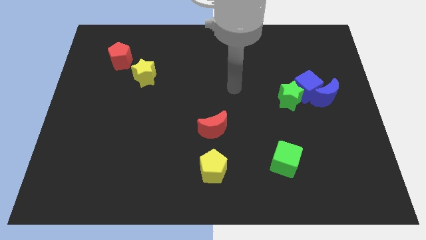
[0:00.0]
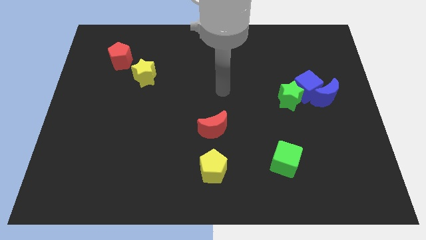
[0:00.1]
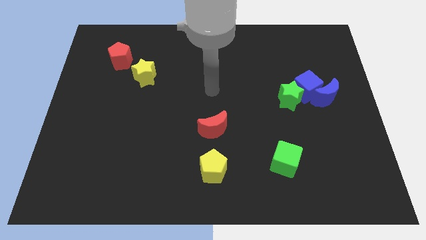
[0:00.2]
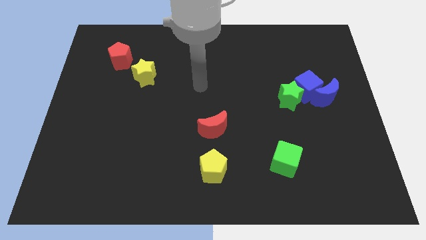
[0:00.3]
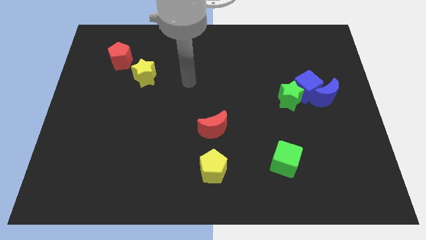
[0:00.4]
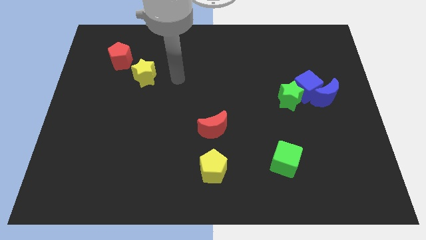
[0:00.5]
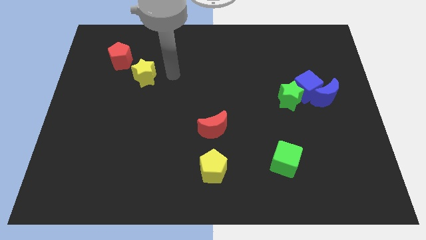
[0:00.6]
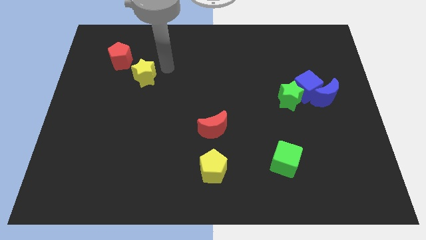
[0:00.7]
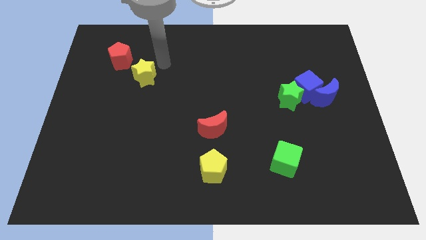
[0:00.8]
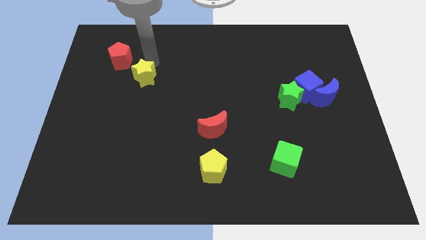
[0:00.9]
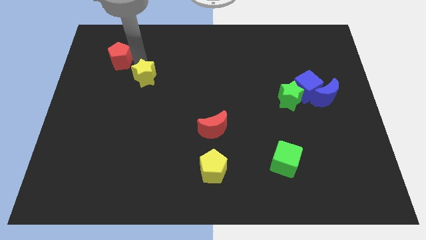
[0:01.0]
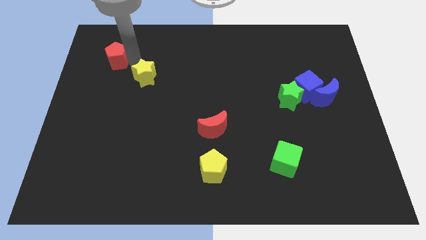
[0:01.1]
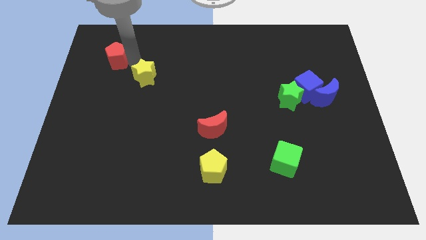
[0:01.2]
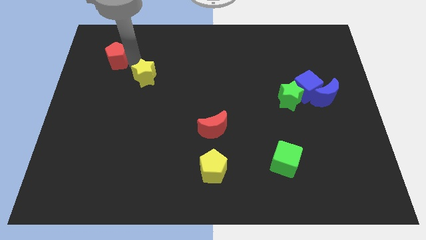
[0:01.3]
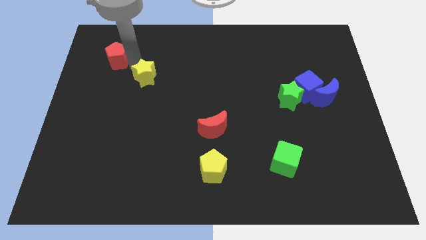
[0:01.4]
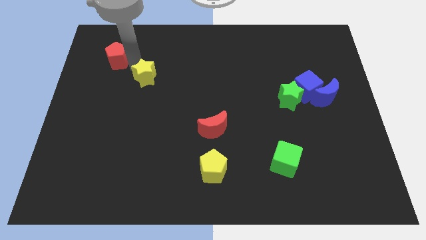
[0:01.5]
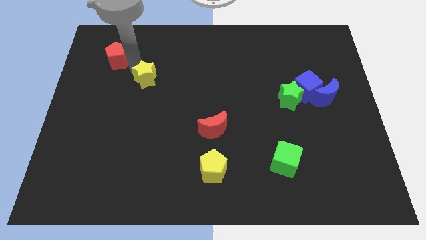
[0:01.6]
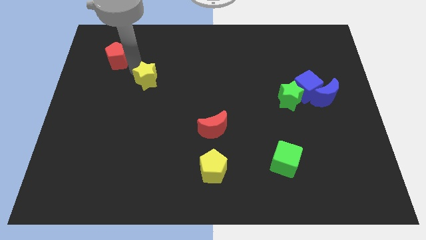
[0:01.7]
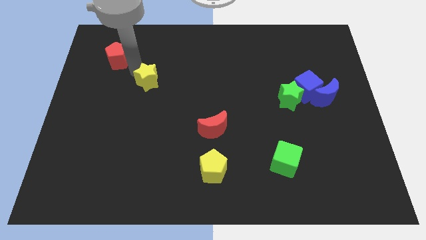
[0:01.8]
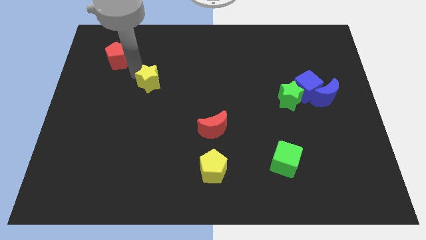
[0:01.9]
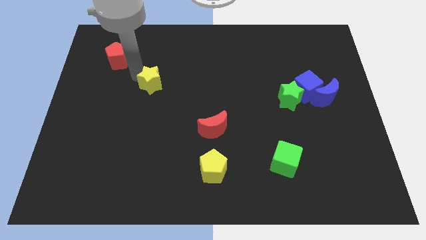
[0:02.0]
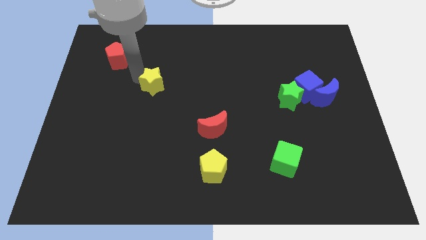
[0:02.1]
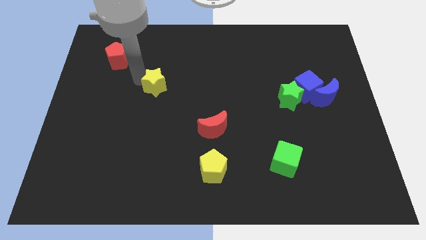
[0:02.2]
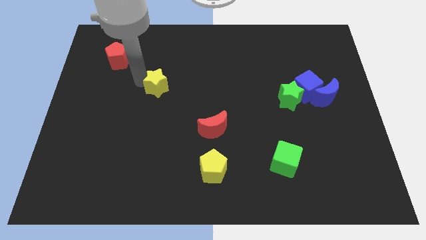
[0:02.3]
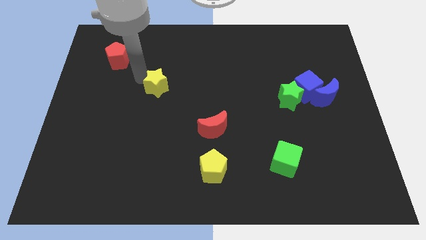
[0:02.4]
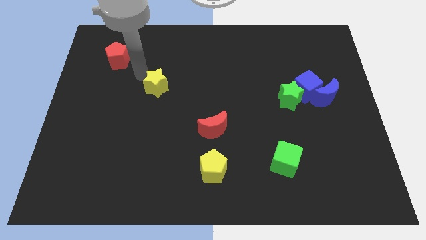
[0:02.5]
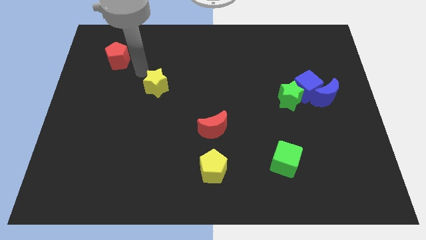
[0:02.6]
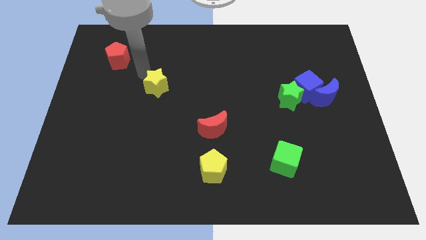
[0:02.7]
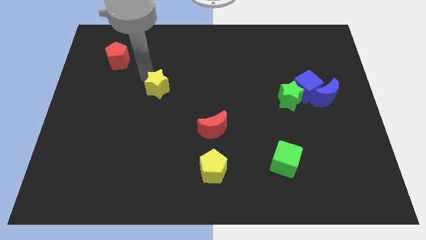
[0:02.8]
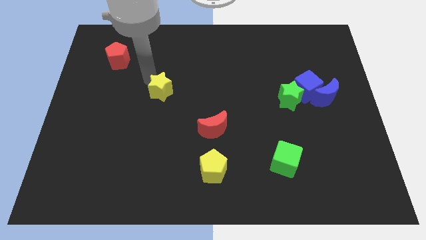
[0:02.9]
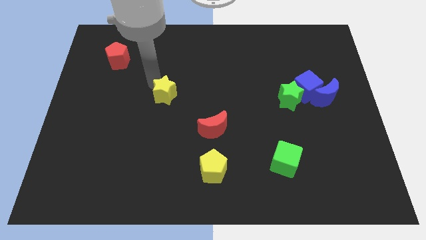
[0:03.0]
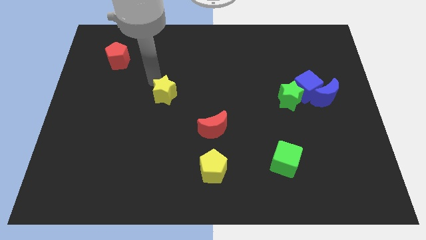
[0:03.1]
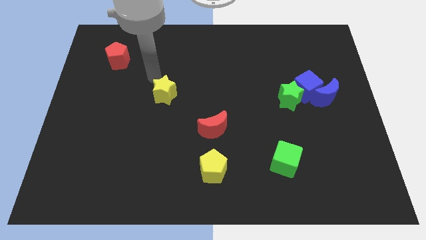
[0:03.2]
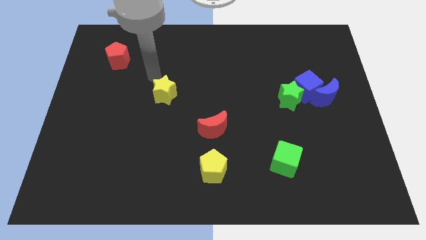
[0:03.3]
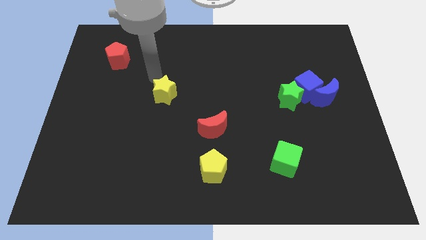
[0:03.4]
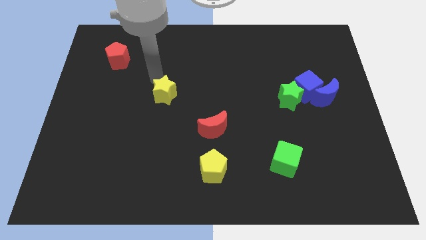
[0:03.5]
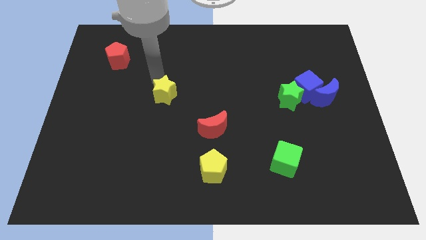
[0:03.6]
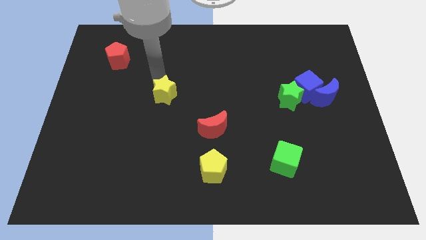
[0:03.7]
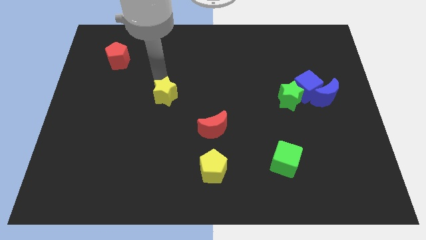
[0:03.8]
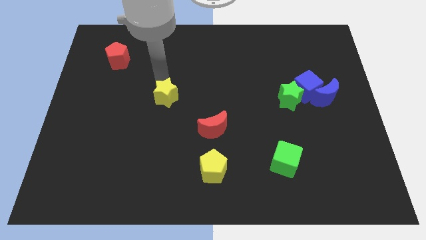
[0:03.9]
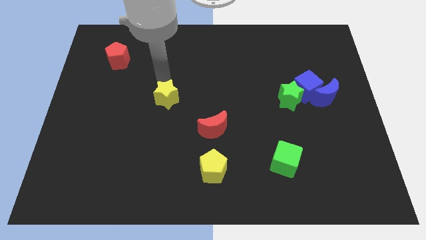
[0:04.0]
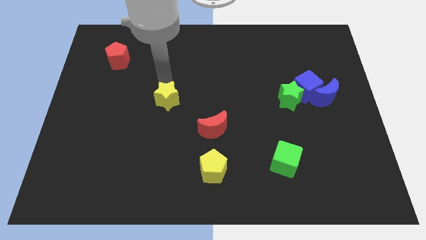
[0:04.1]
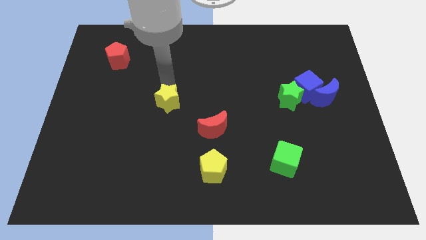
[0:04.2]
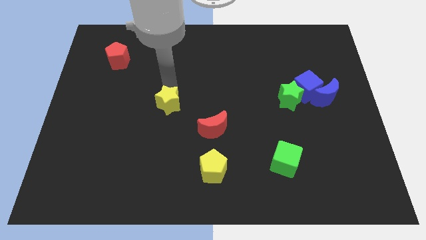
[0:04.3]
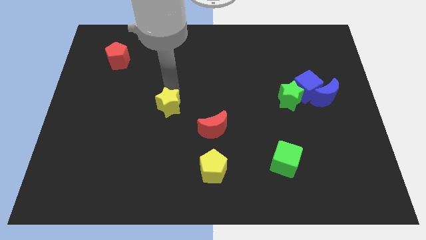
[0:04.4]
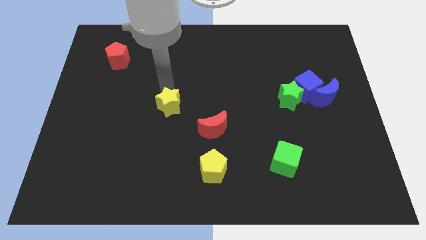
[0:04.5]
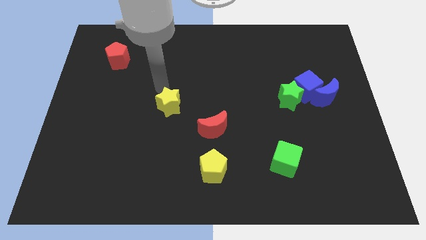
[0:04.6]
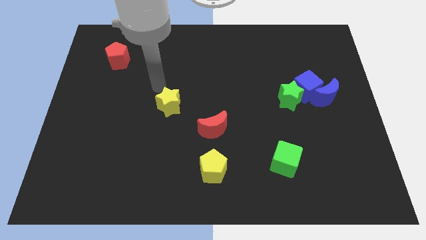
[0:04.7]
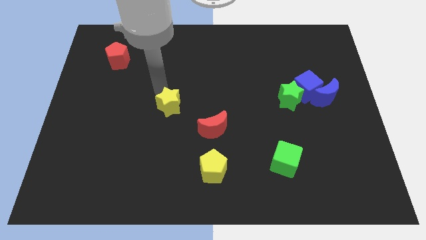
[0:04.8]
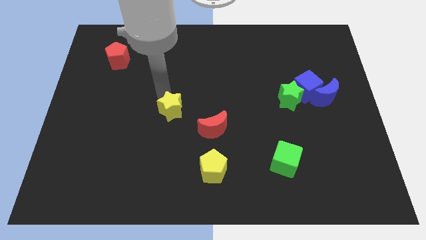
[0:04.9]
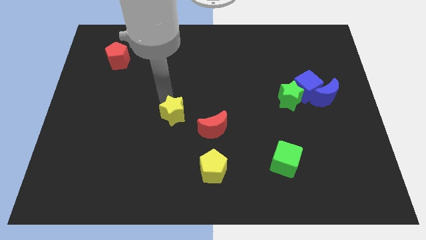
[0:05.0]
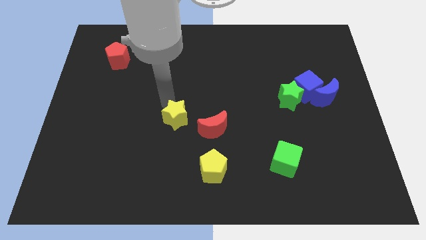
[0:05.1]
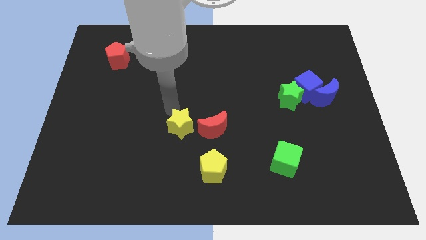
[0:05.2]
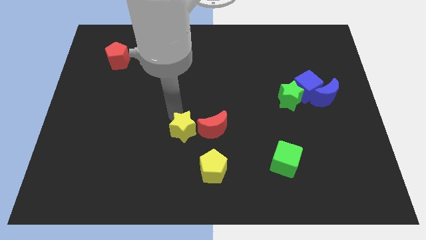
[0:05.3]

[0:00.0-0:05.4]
push the yellow star diagonally down and to the left of the red moon

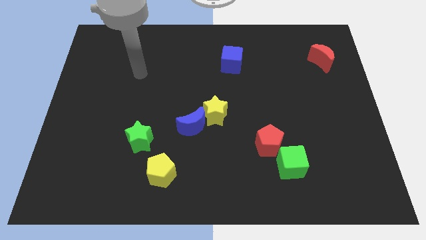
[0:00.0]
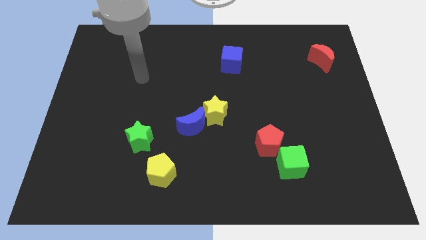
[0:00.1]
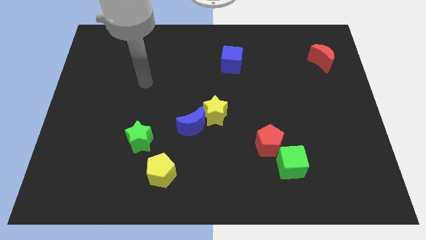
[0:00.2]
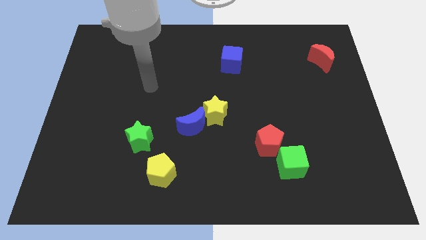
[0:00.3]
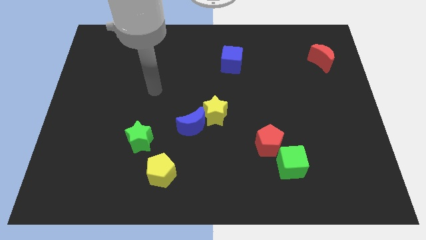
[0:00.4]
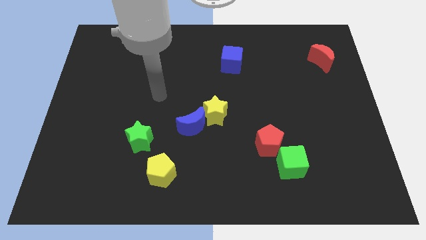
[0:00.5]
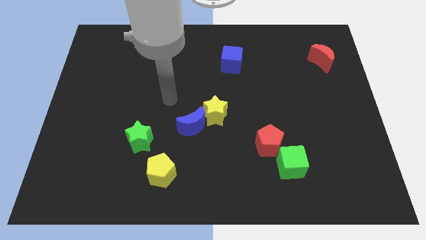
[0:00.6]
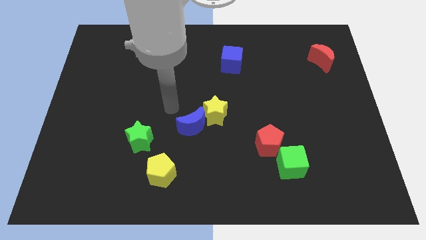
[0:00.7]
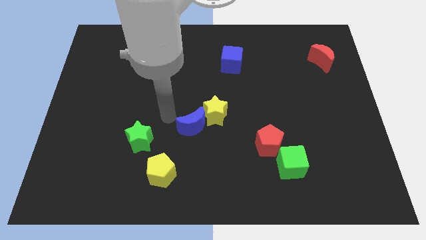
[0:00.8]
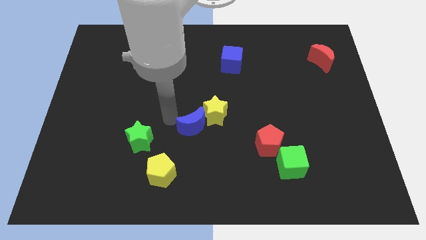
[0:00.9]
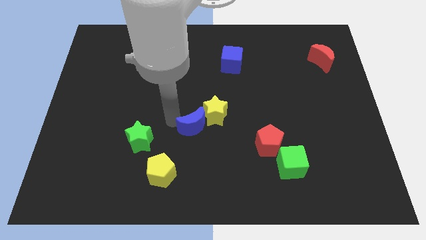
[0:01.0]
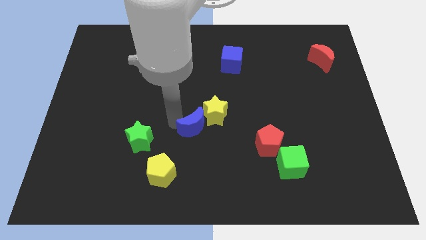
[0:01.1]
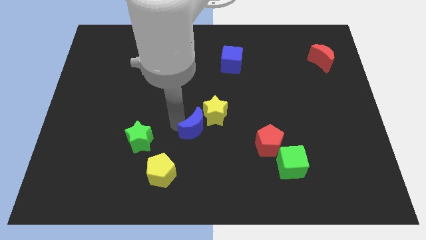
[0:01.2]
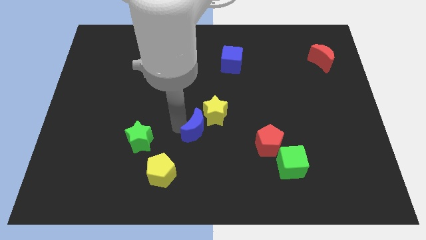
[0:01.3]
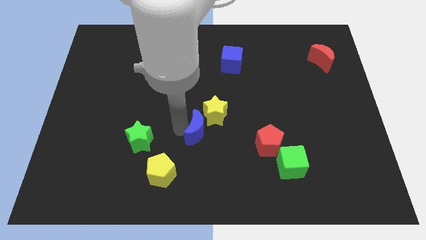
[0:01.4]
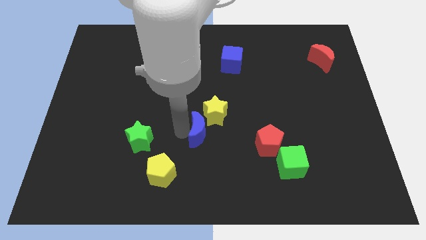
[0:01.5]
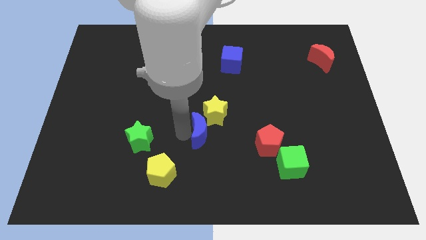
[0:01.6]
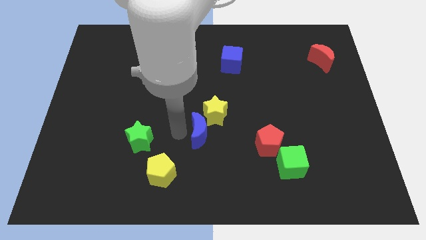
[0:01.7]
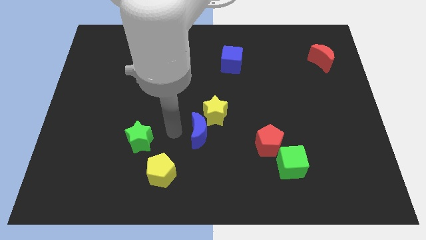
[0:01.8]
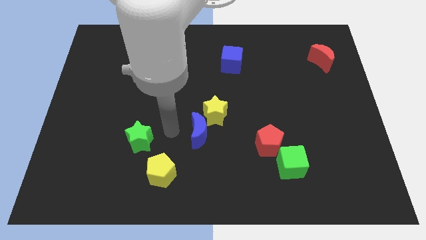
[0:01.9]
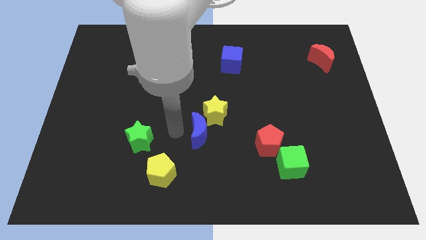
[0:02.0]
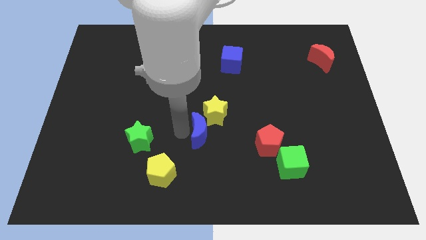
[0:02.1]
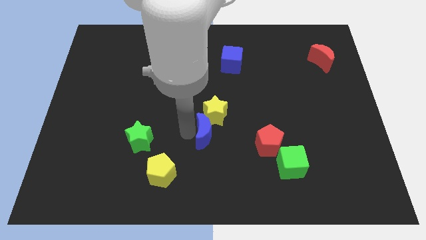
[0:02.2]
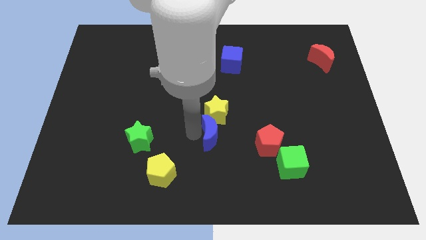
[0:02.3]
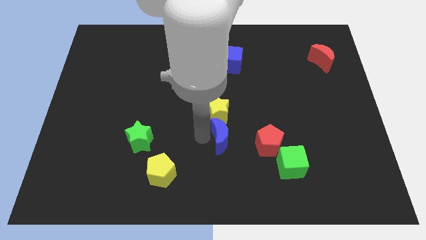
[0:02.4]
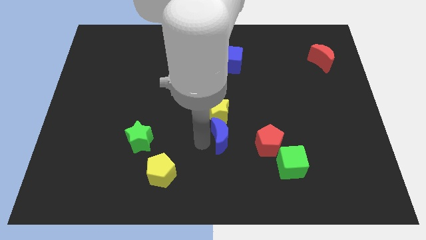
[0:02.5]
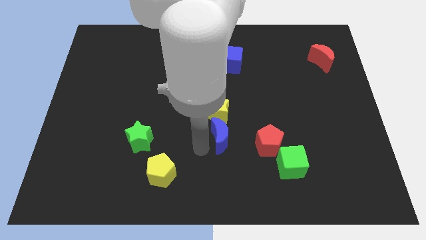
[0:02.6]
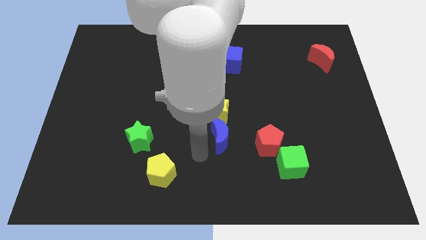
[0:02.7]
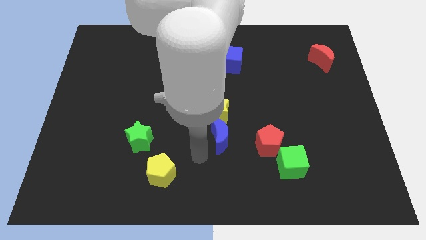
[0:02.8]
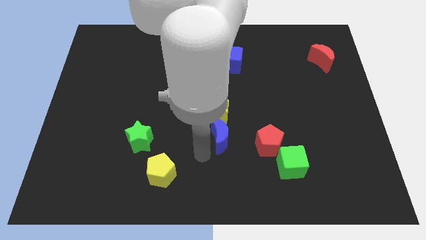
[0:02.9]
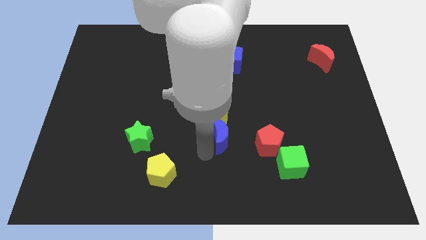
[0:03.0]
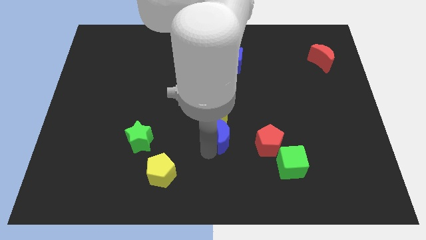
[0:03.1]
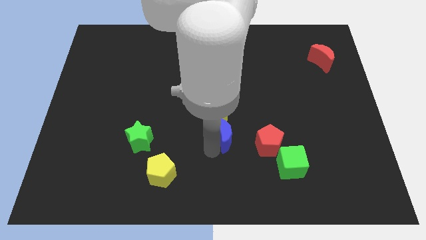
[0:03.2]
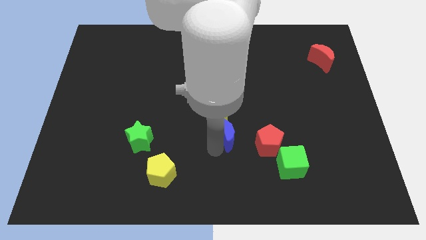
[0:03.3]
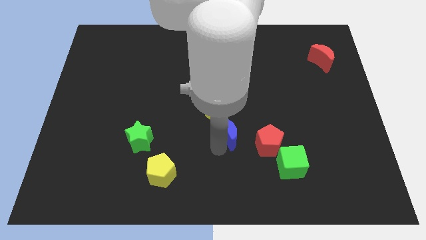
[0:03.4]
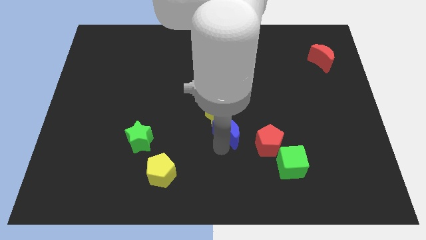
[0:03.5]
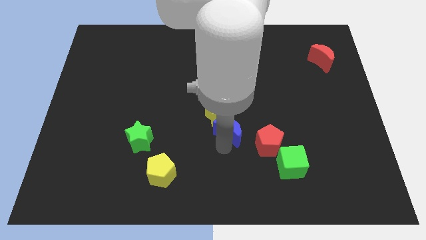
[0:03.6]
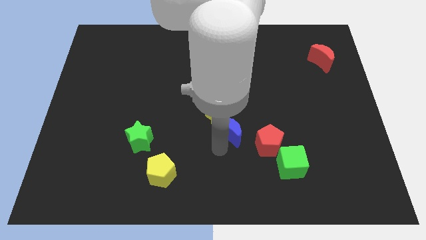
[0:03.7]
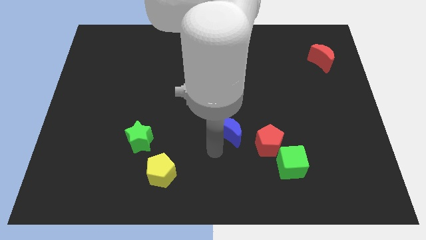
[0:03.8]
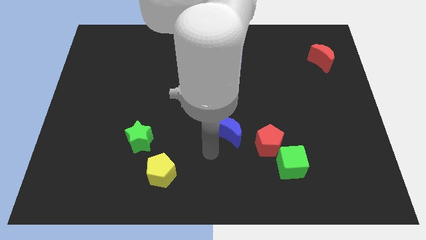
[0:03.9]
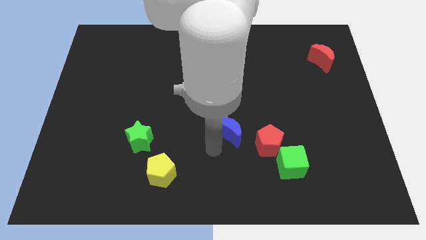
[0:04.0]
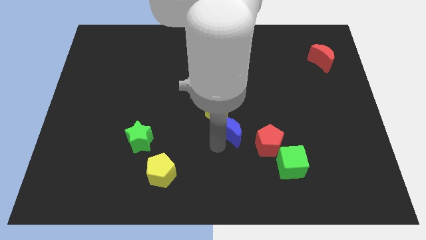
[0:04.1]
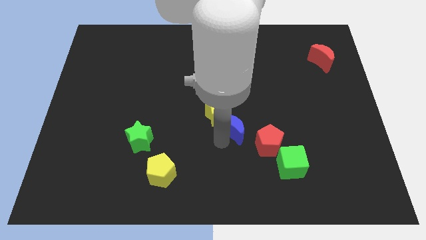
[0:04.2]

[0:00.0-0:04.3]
slide the blue moon to the right of the yellow star
